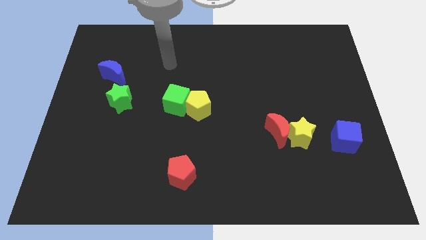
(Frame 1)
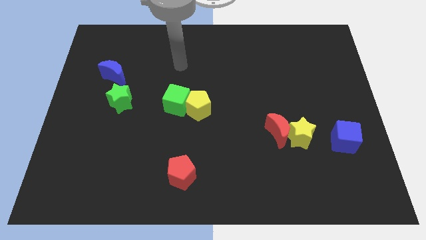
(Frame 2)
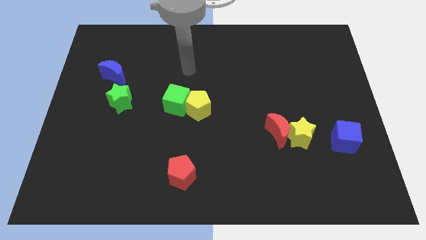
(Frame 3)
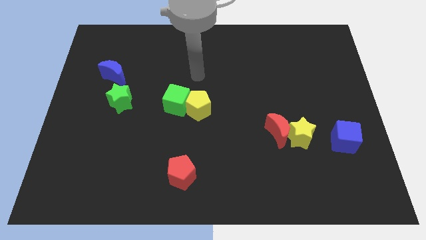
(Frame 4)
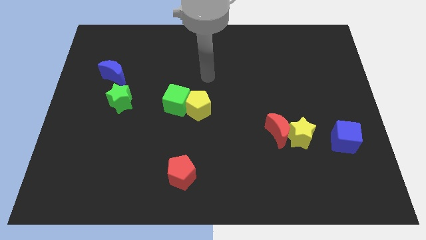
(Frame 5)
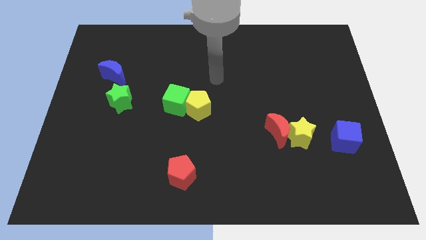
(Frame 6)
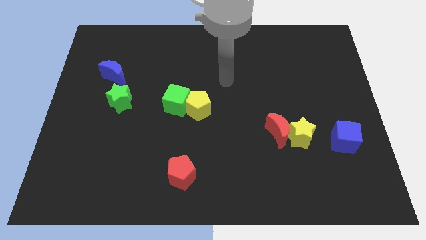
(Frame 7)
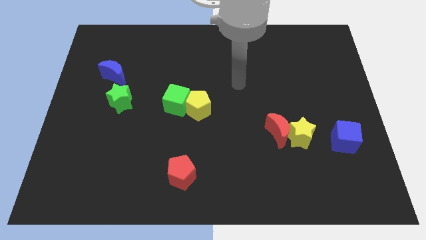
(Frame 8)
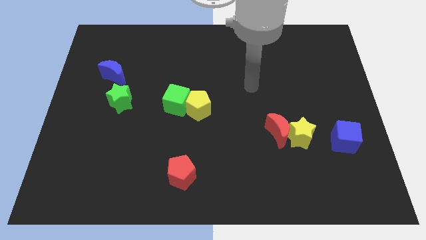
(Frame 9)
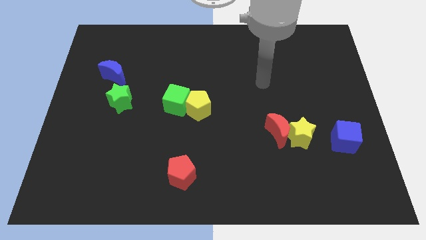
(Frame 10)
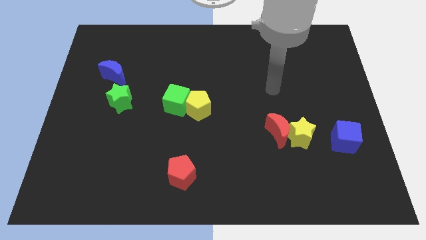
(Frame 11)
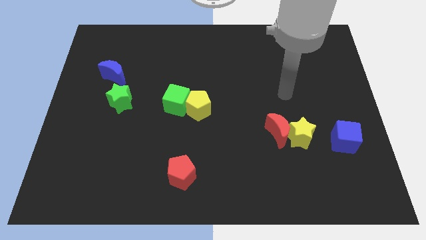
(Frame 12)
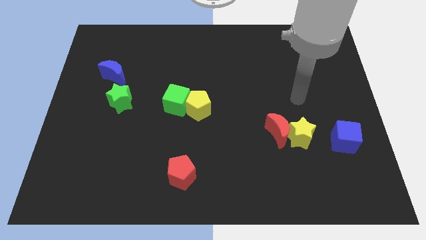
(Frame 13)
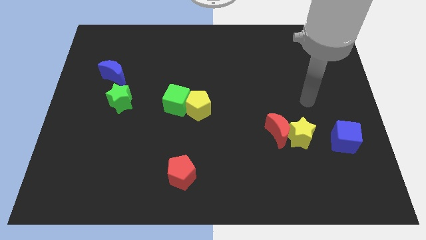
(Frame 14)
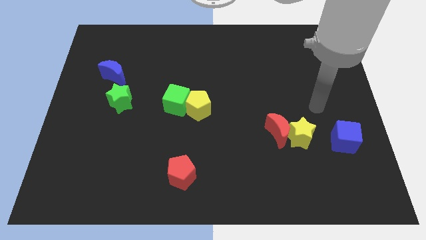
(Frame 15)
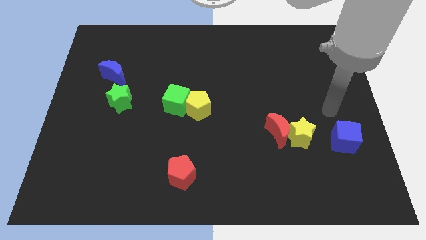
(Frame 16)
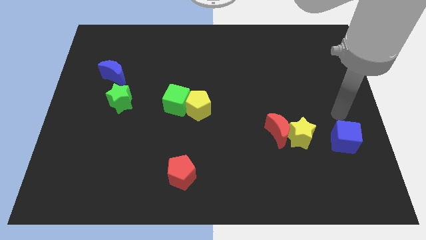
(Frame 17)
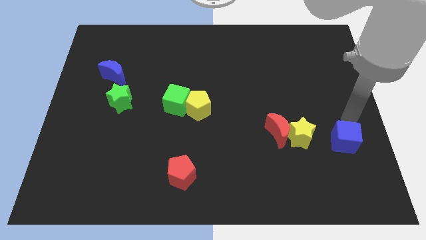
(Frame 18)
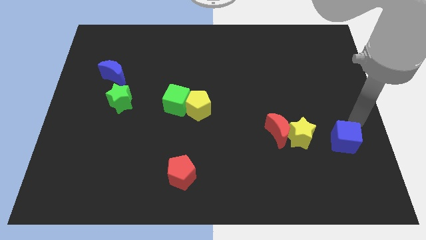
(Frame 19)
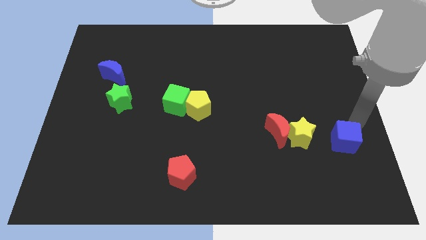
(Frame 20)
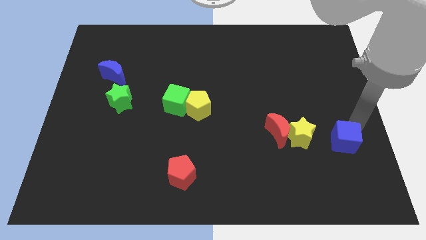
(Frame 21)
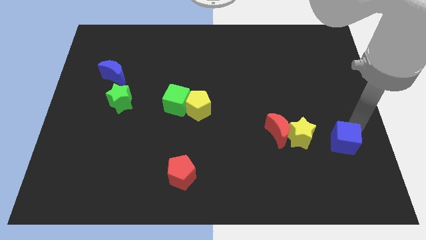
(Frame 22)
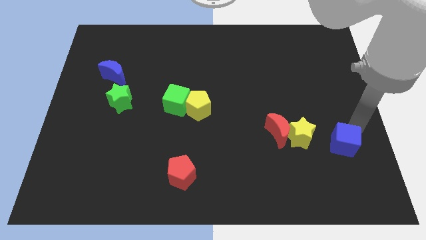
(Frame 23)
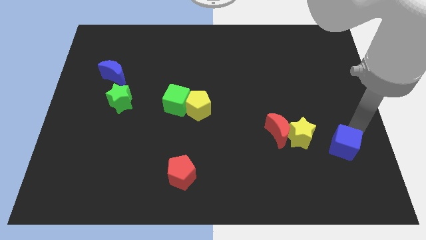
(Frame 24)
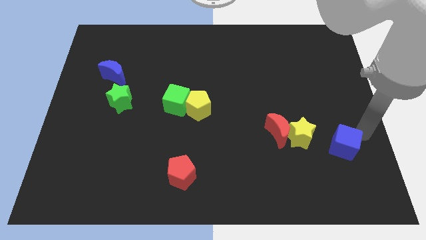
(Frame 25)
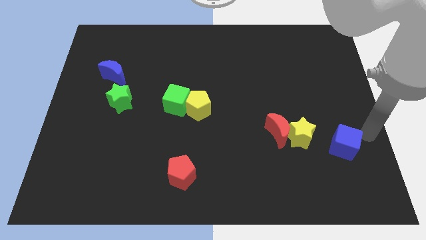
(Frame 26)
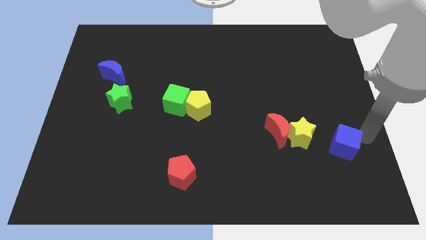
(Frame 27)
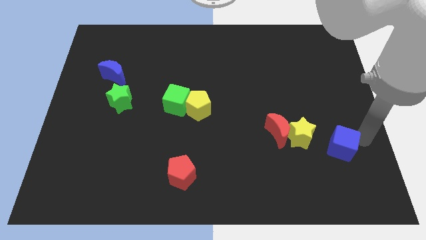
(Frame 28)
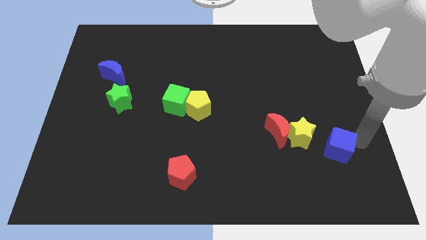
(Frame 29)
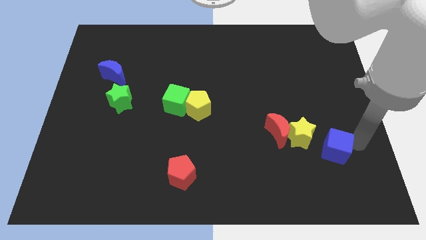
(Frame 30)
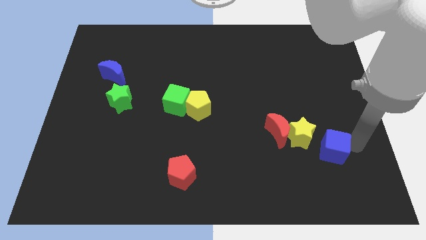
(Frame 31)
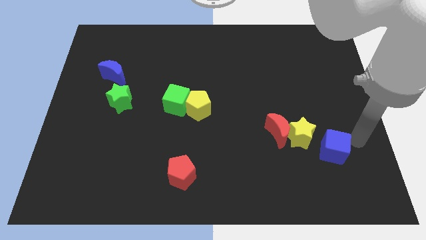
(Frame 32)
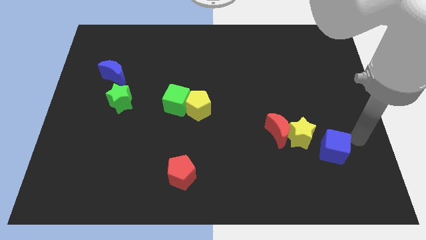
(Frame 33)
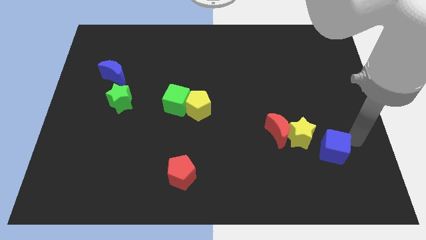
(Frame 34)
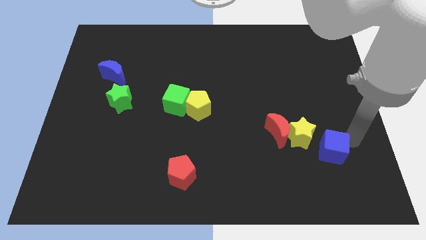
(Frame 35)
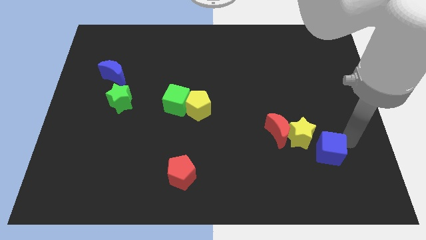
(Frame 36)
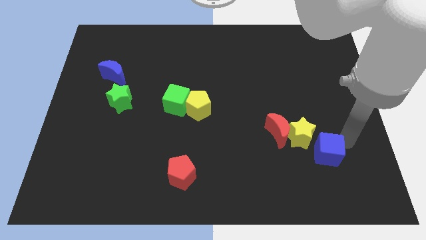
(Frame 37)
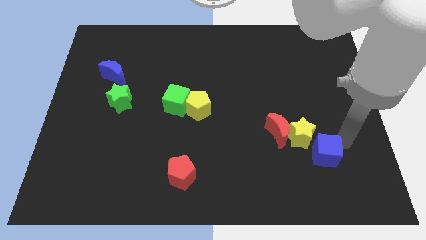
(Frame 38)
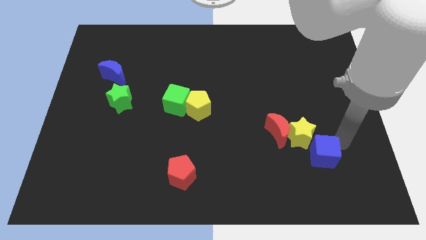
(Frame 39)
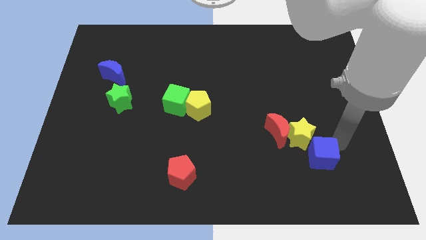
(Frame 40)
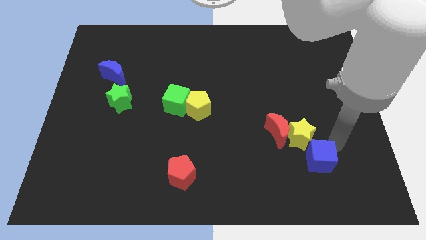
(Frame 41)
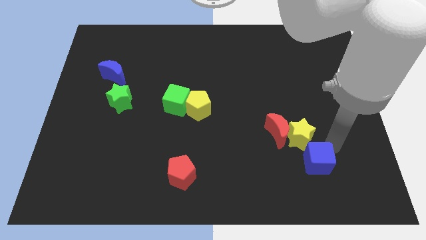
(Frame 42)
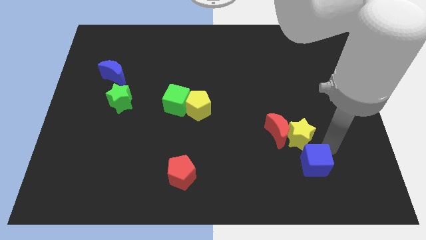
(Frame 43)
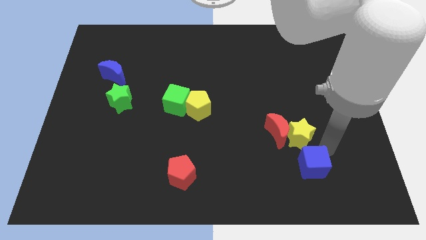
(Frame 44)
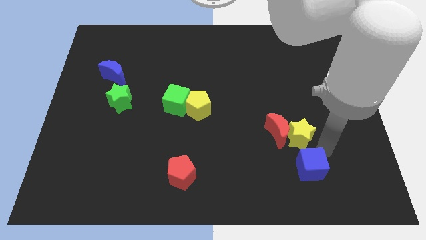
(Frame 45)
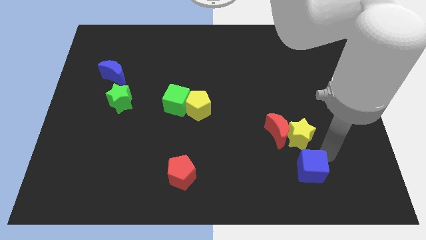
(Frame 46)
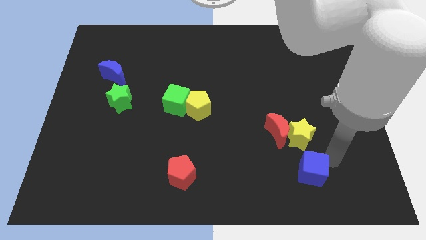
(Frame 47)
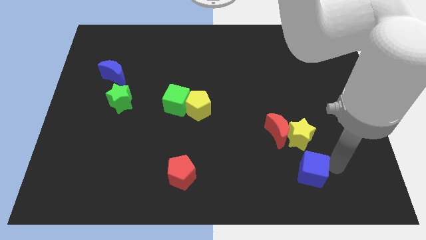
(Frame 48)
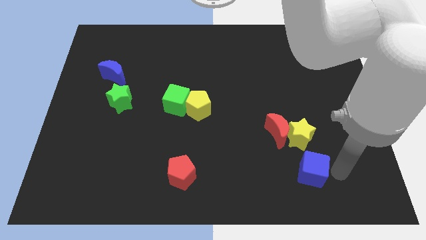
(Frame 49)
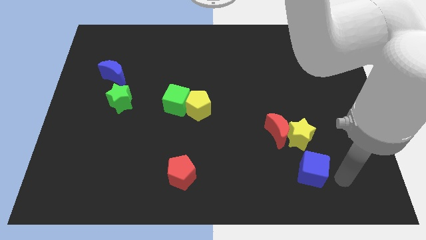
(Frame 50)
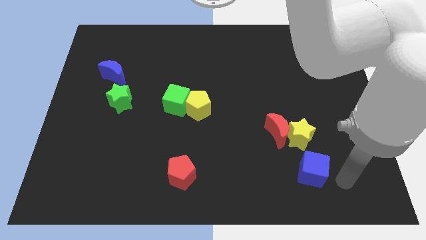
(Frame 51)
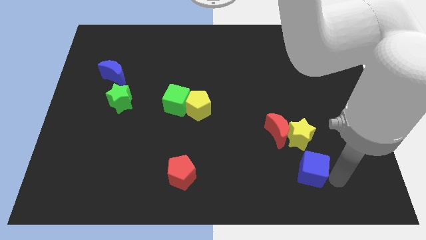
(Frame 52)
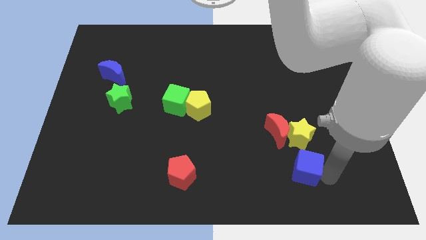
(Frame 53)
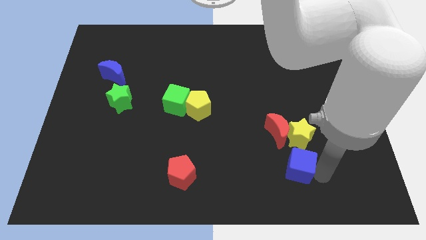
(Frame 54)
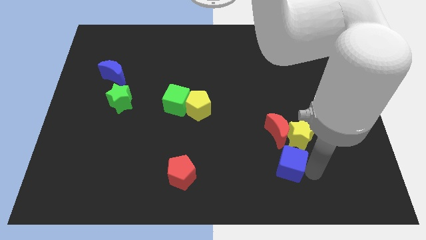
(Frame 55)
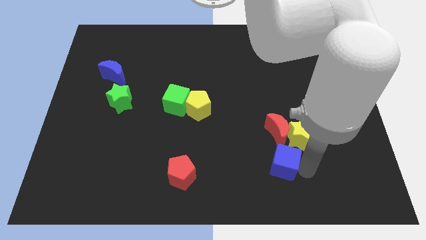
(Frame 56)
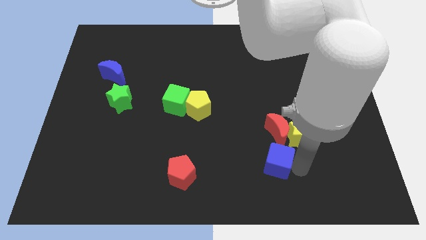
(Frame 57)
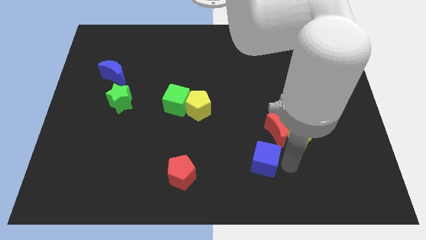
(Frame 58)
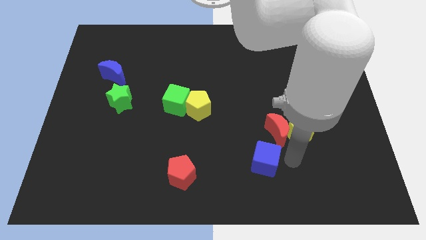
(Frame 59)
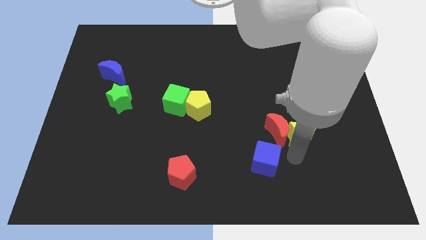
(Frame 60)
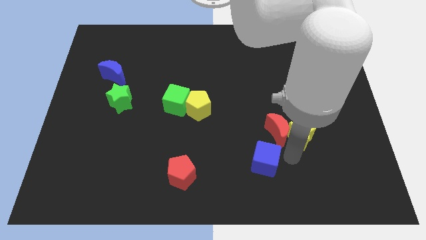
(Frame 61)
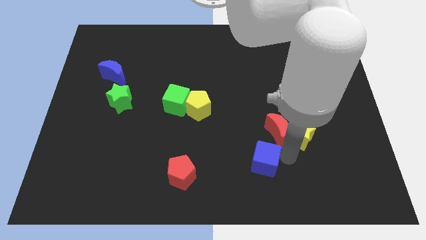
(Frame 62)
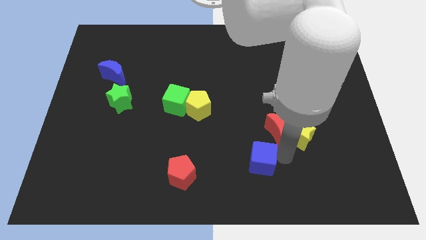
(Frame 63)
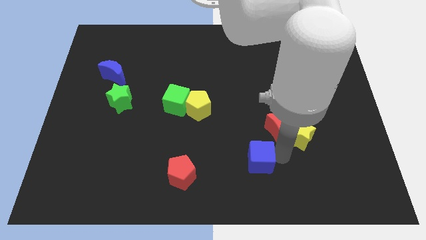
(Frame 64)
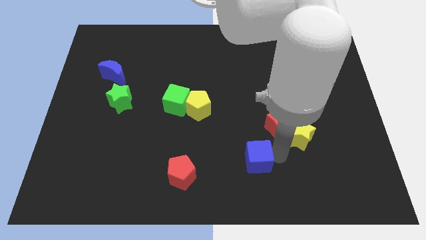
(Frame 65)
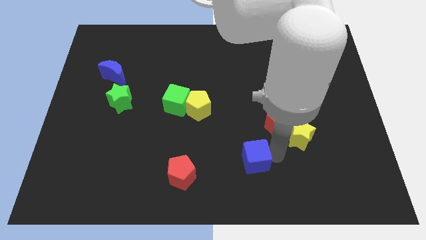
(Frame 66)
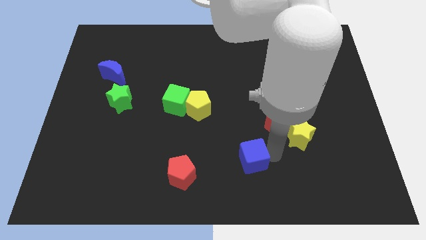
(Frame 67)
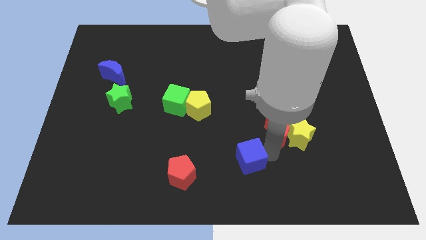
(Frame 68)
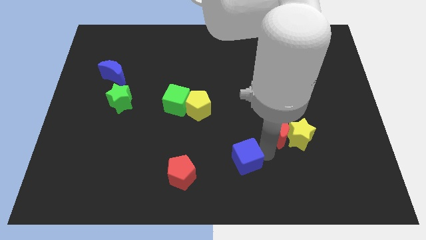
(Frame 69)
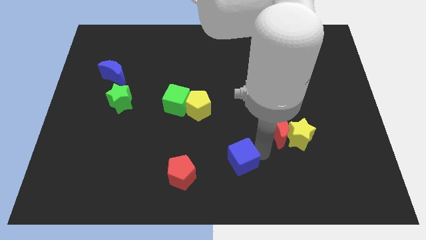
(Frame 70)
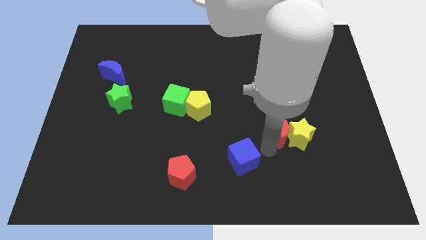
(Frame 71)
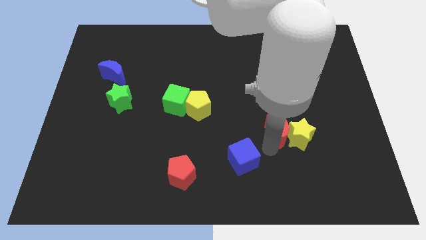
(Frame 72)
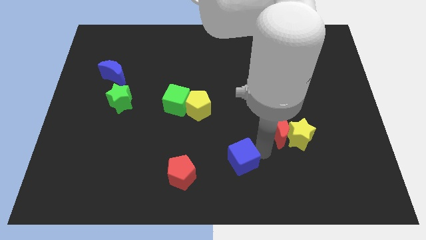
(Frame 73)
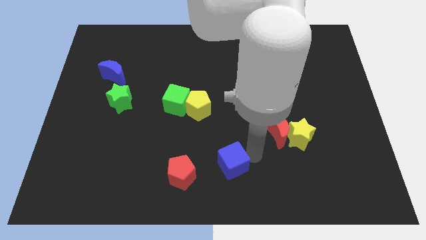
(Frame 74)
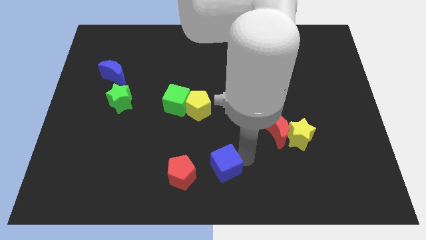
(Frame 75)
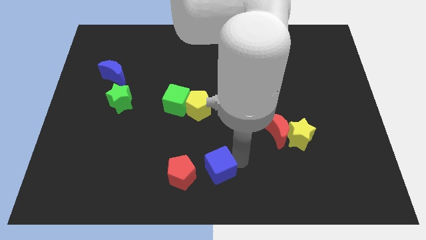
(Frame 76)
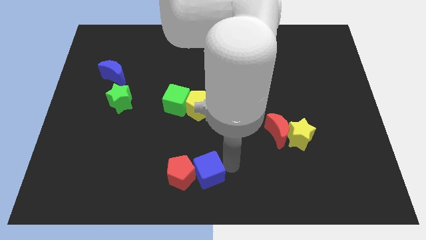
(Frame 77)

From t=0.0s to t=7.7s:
move the blue cube towards the red pentagon
